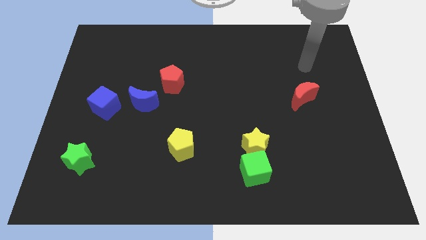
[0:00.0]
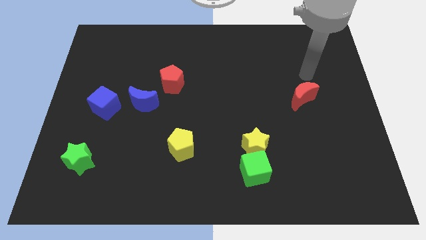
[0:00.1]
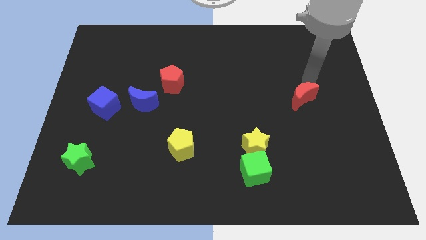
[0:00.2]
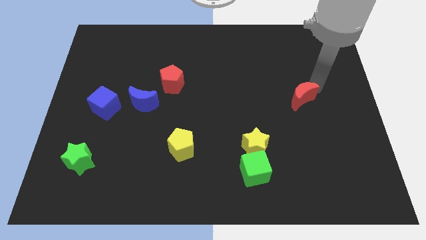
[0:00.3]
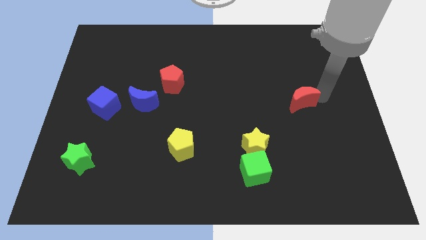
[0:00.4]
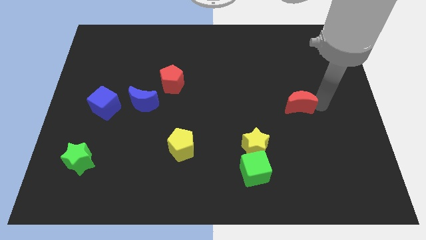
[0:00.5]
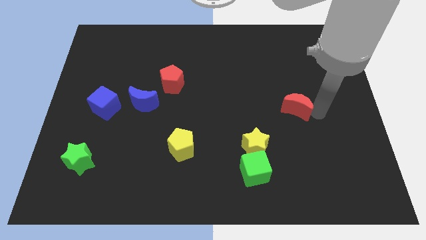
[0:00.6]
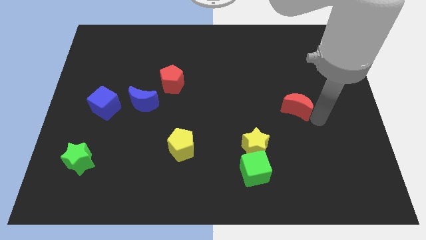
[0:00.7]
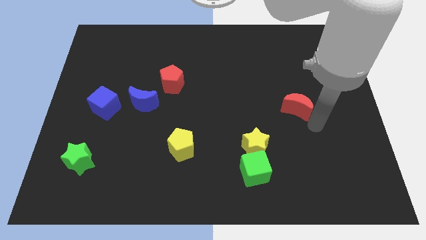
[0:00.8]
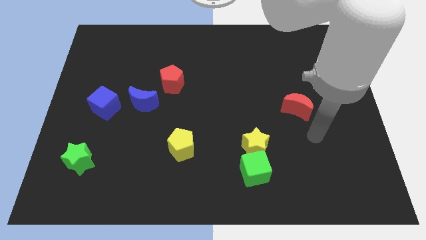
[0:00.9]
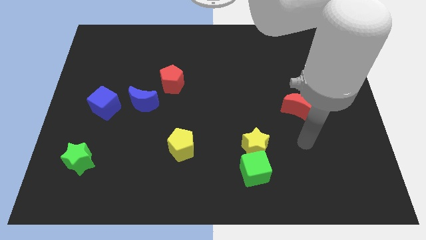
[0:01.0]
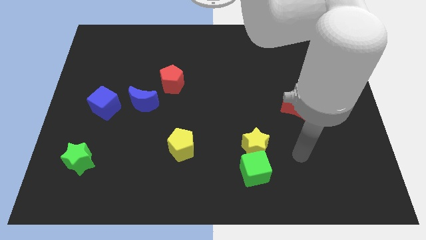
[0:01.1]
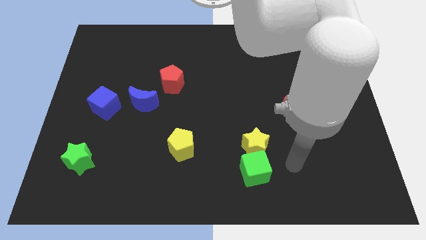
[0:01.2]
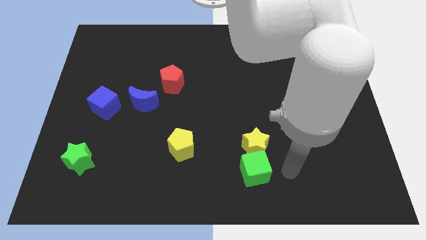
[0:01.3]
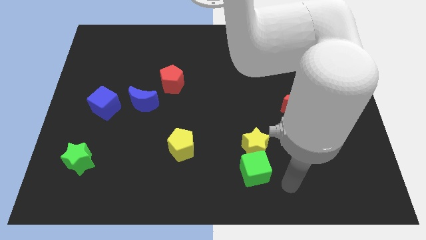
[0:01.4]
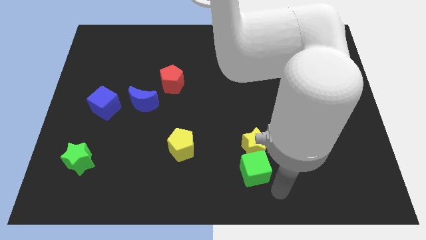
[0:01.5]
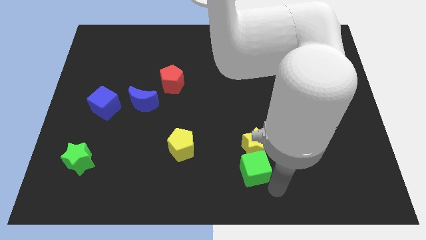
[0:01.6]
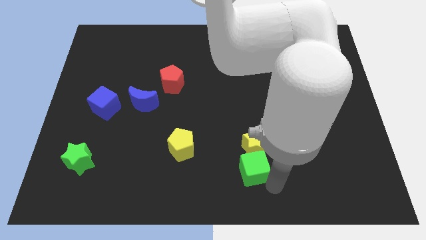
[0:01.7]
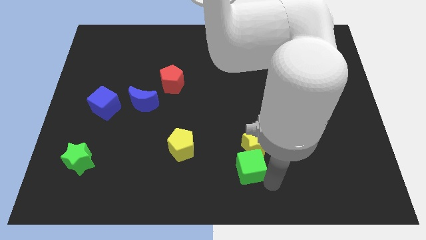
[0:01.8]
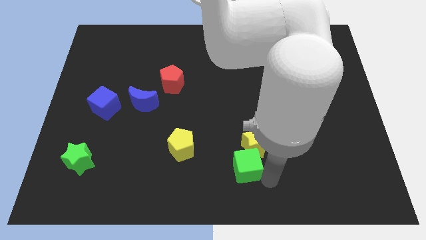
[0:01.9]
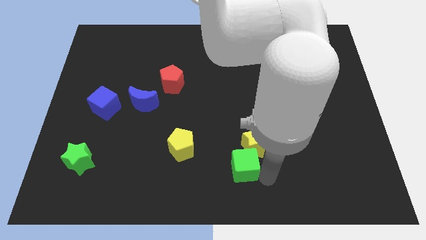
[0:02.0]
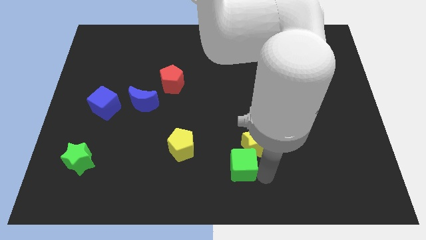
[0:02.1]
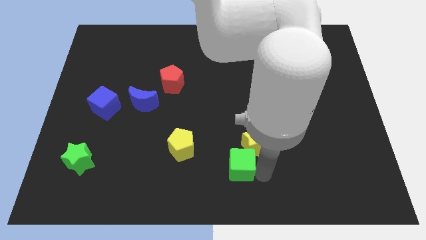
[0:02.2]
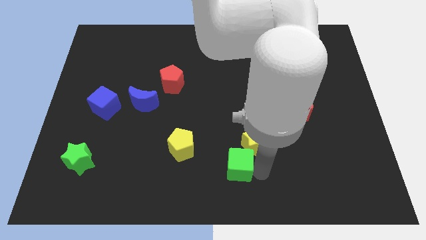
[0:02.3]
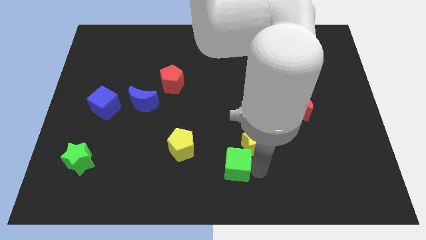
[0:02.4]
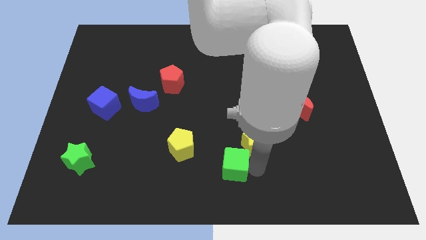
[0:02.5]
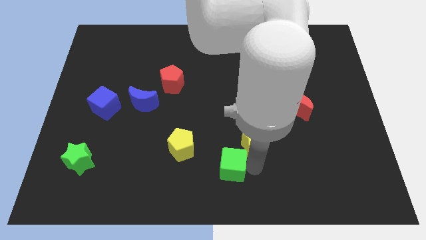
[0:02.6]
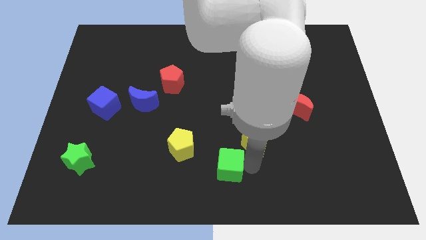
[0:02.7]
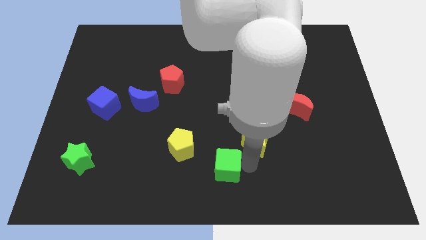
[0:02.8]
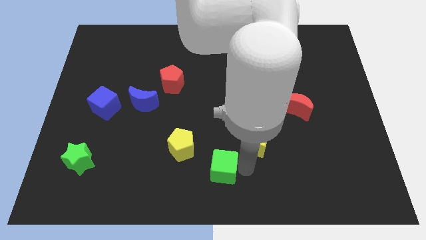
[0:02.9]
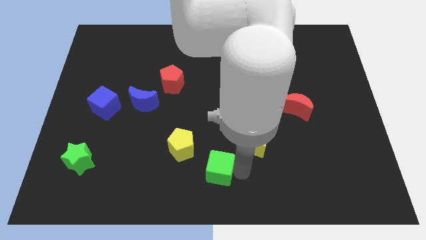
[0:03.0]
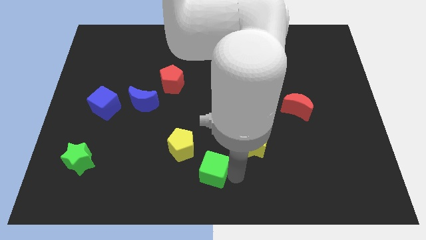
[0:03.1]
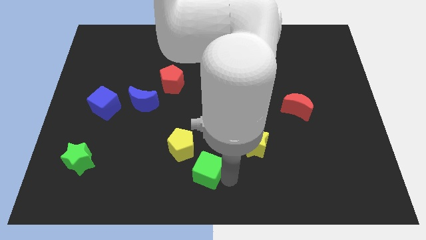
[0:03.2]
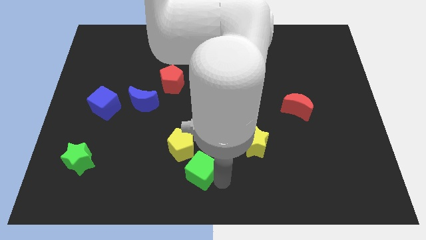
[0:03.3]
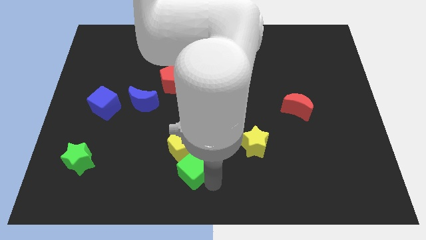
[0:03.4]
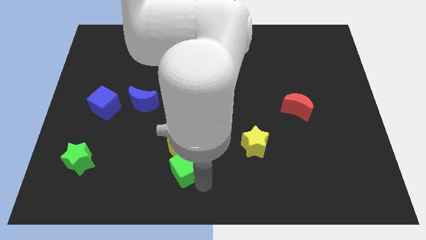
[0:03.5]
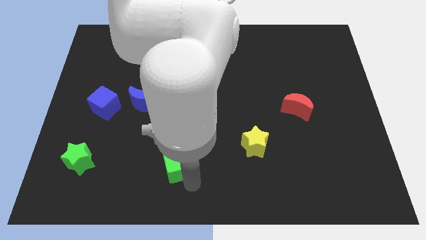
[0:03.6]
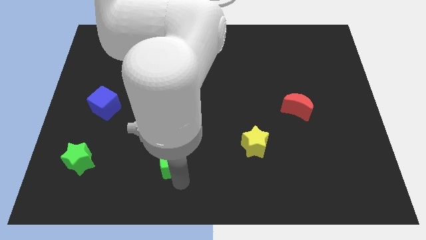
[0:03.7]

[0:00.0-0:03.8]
push the green cube upwards and to the left diagonally a little bit

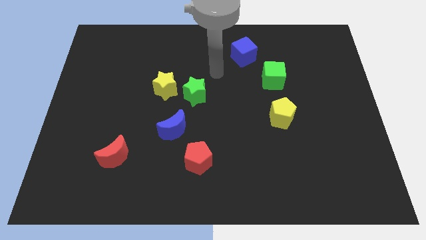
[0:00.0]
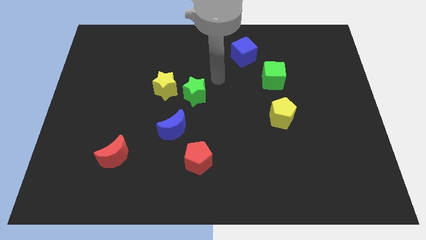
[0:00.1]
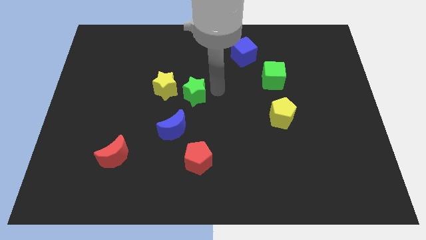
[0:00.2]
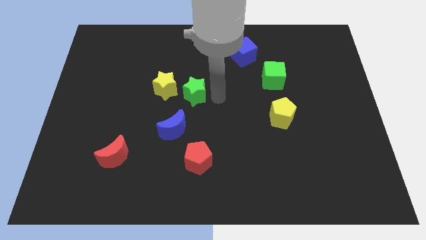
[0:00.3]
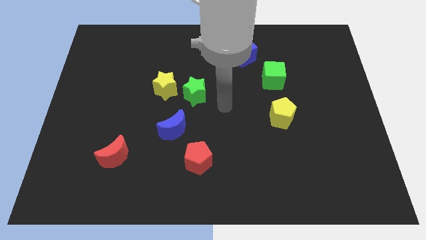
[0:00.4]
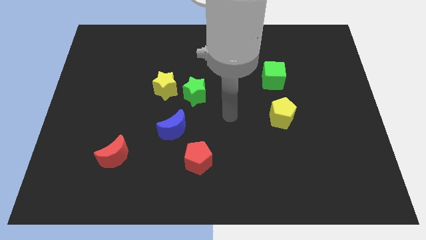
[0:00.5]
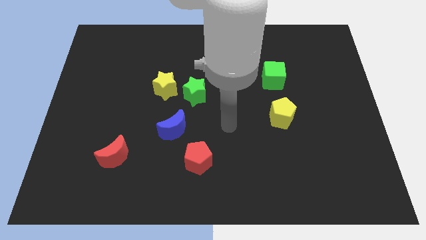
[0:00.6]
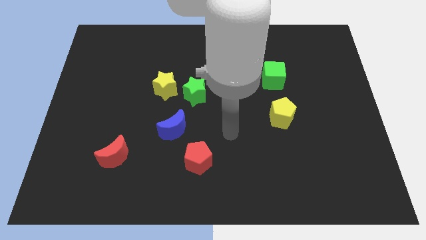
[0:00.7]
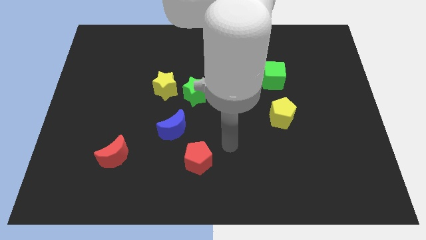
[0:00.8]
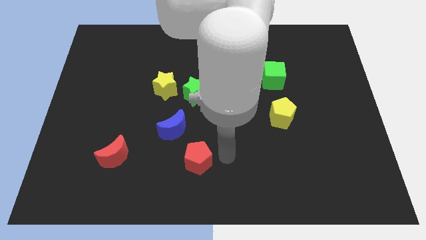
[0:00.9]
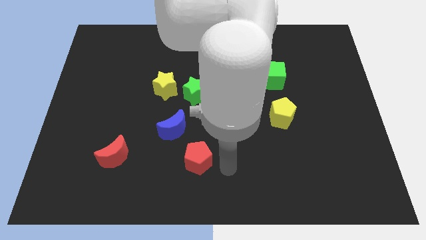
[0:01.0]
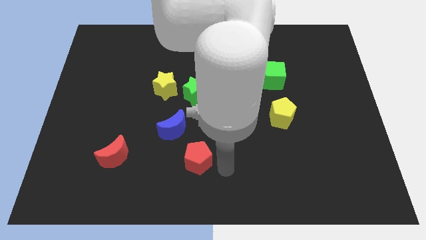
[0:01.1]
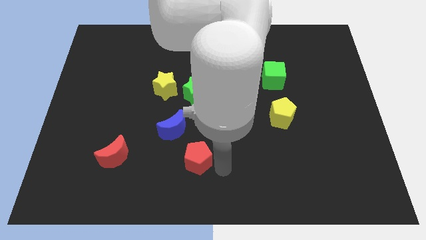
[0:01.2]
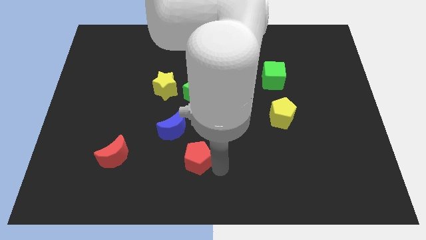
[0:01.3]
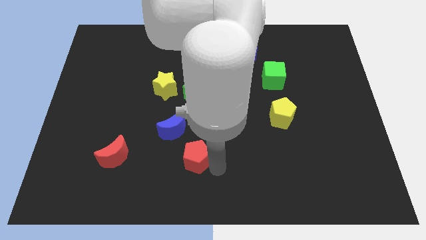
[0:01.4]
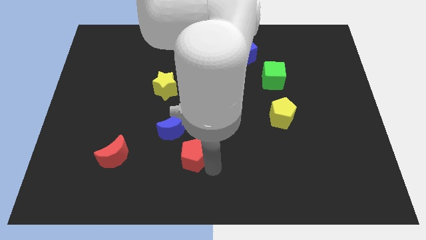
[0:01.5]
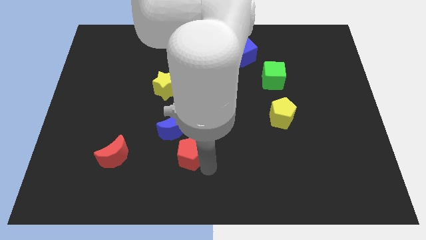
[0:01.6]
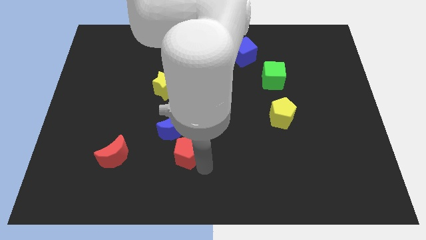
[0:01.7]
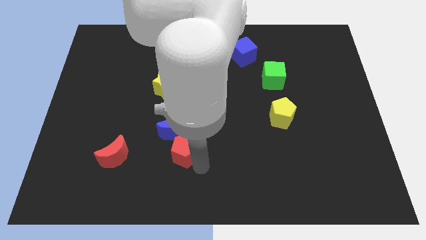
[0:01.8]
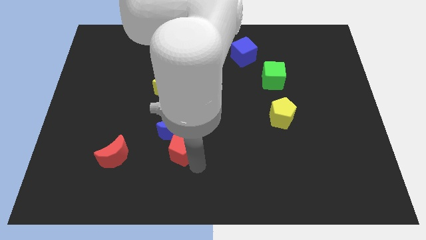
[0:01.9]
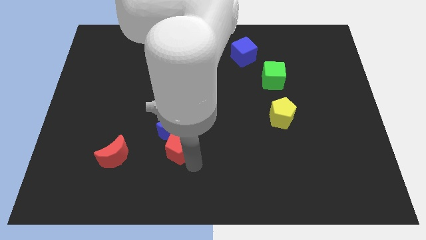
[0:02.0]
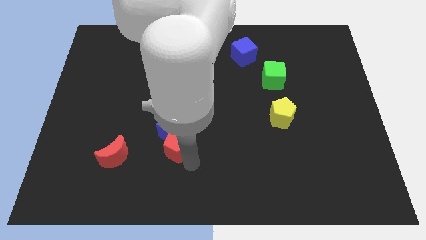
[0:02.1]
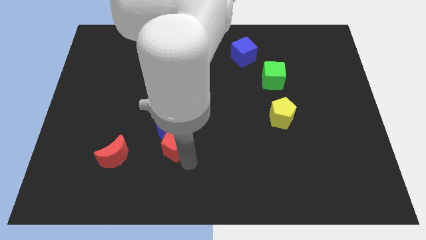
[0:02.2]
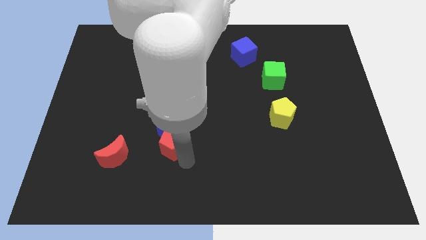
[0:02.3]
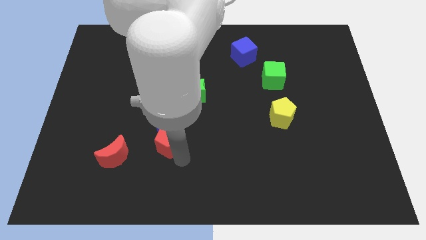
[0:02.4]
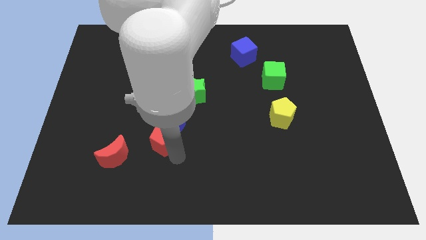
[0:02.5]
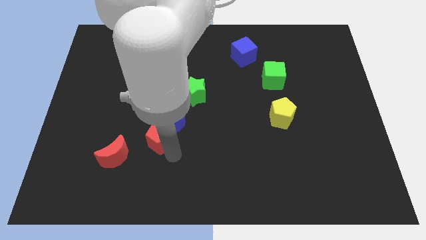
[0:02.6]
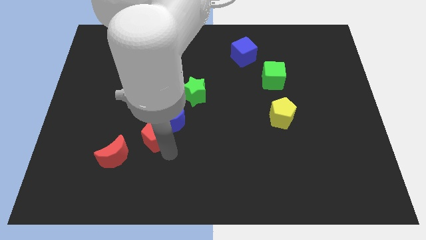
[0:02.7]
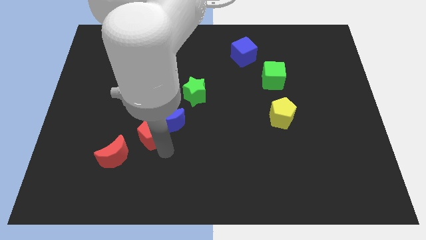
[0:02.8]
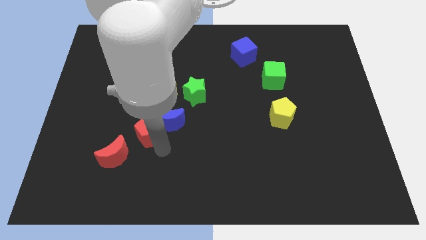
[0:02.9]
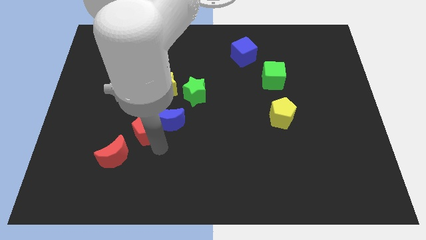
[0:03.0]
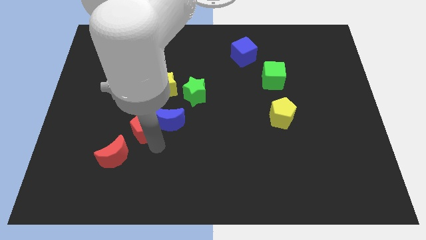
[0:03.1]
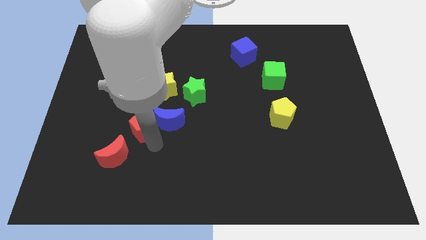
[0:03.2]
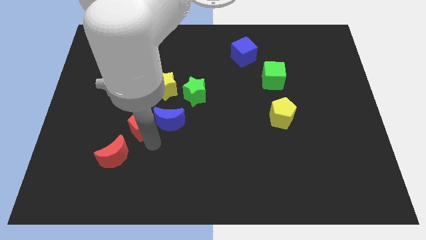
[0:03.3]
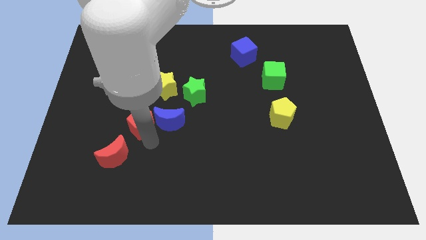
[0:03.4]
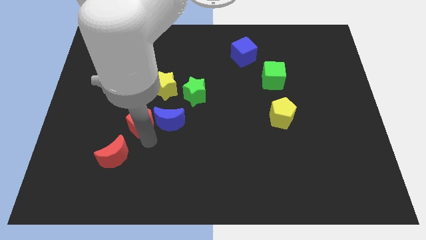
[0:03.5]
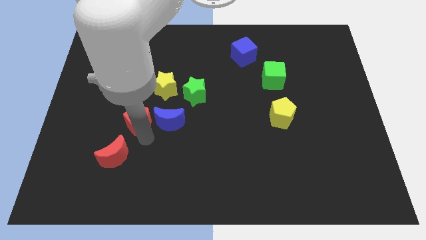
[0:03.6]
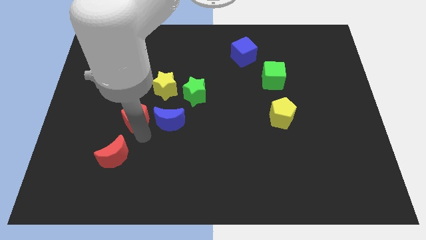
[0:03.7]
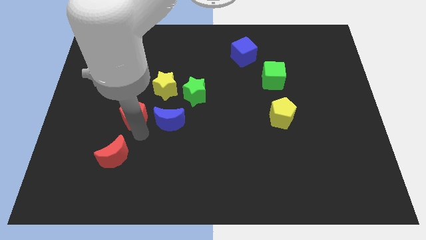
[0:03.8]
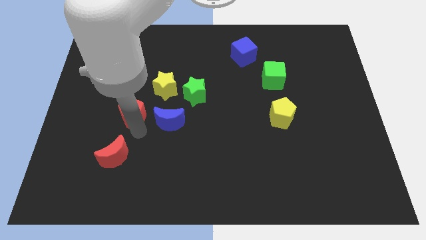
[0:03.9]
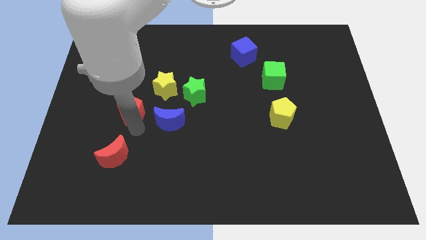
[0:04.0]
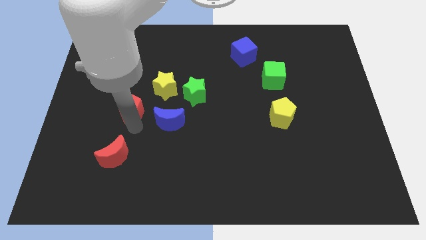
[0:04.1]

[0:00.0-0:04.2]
slide the red pentagon diagonally up and left
